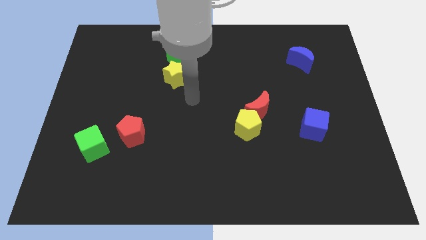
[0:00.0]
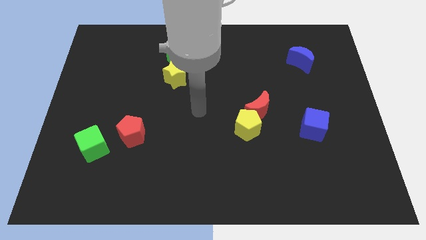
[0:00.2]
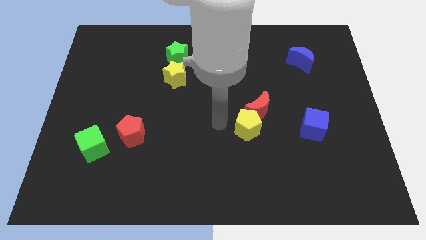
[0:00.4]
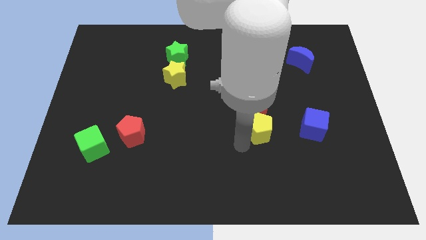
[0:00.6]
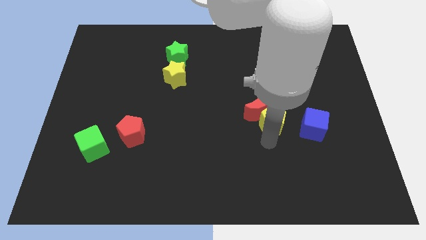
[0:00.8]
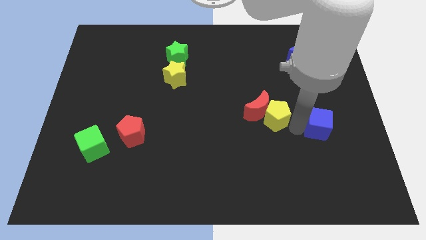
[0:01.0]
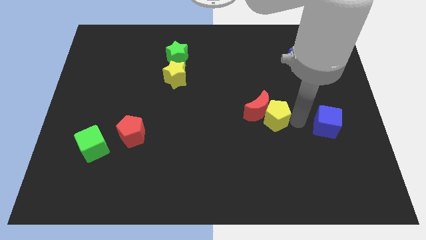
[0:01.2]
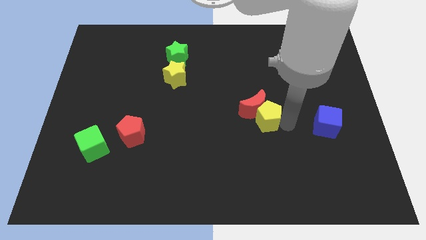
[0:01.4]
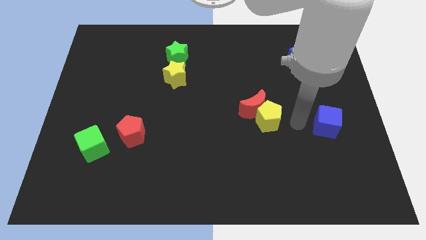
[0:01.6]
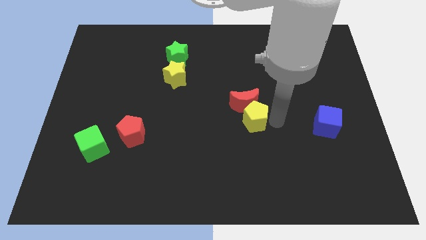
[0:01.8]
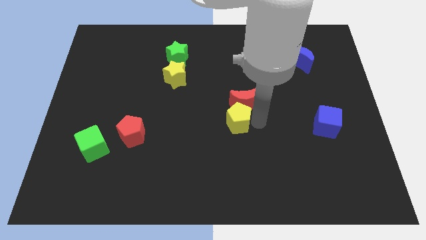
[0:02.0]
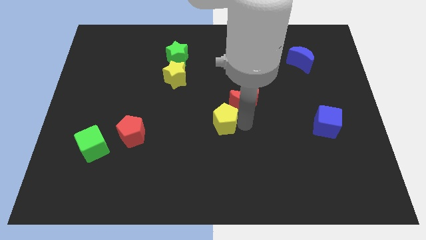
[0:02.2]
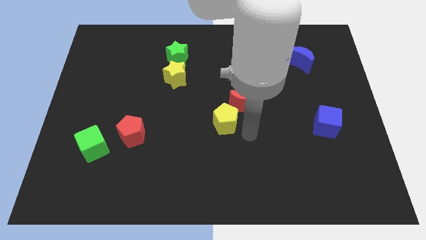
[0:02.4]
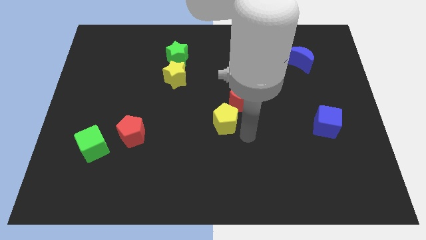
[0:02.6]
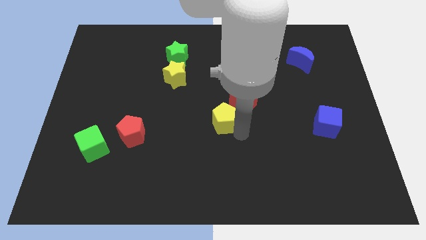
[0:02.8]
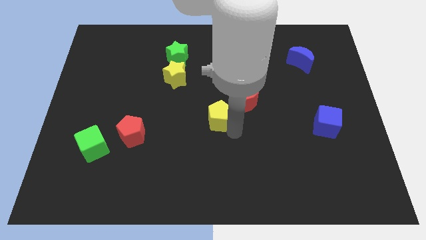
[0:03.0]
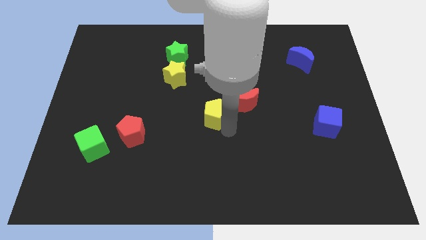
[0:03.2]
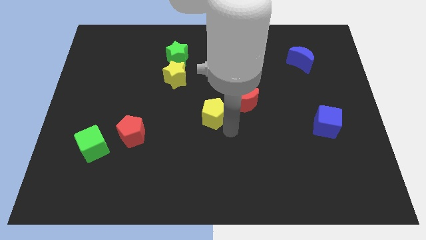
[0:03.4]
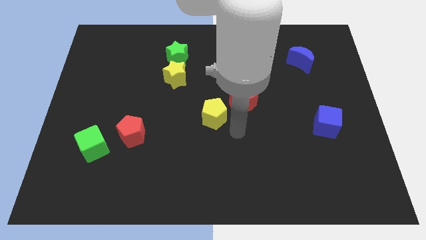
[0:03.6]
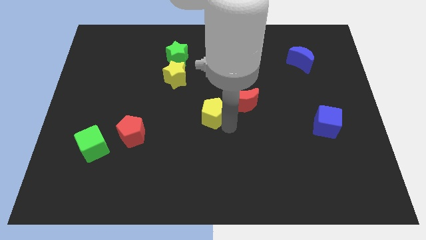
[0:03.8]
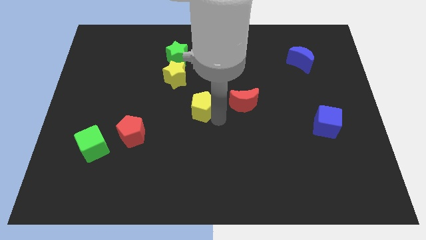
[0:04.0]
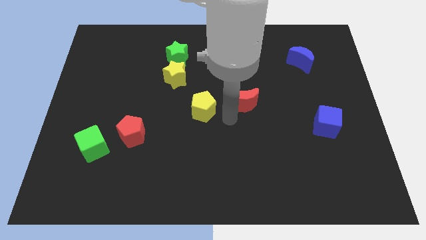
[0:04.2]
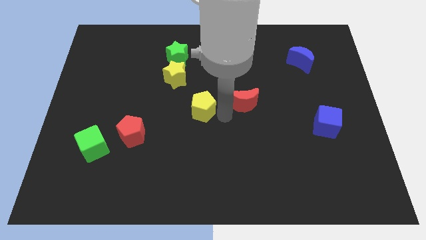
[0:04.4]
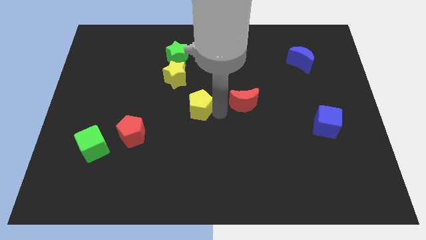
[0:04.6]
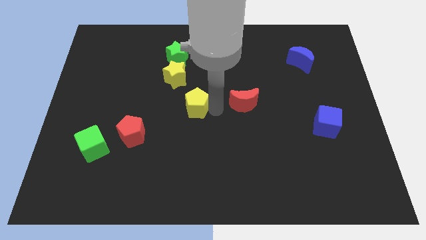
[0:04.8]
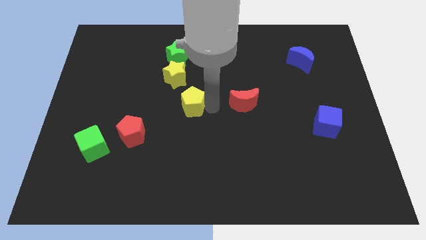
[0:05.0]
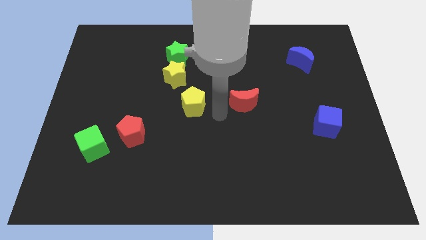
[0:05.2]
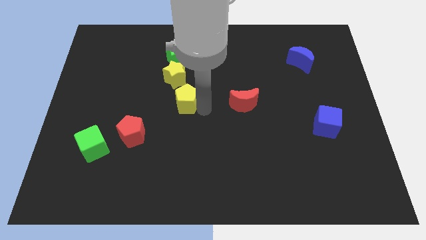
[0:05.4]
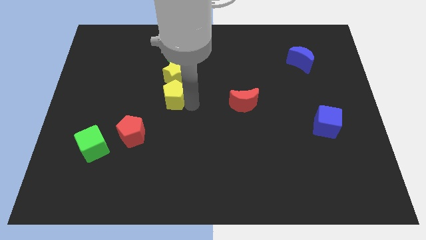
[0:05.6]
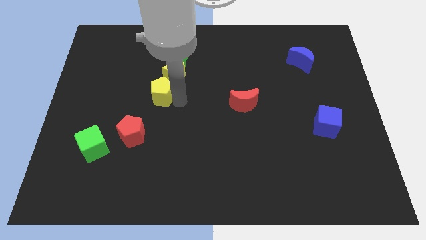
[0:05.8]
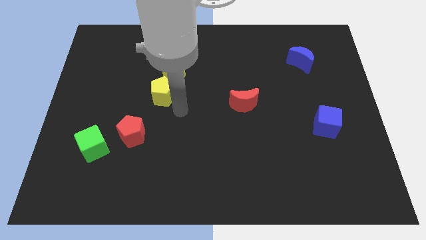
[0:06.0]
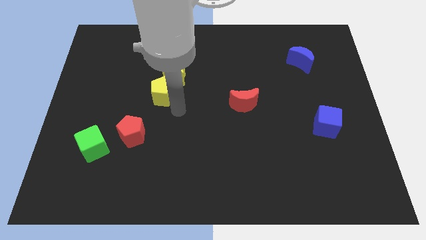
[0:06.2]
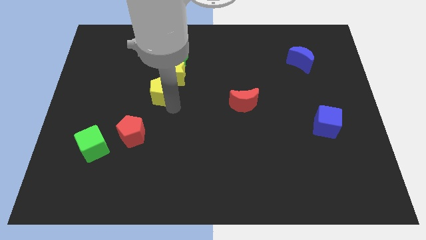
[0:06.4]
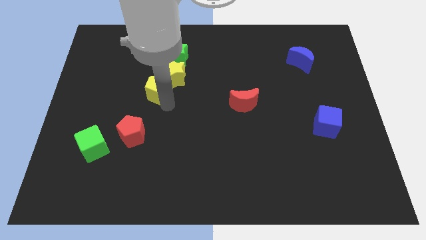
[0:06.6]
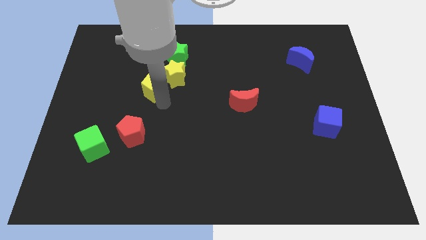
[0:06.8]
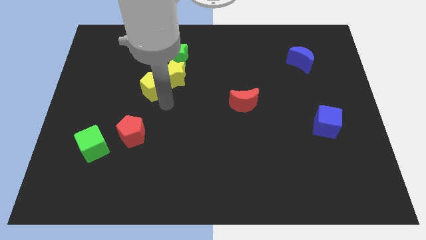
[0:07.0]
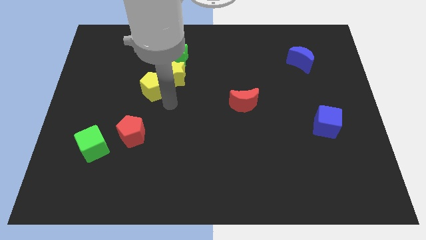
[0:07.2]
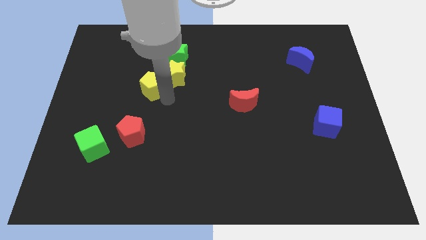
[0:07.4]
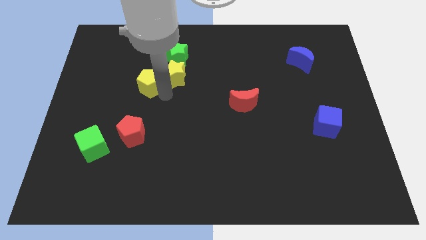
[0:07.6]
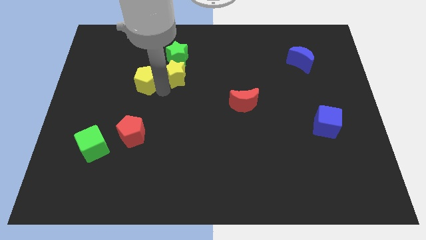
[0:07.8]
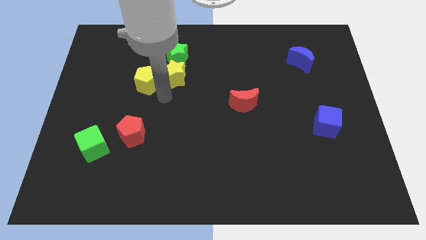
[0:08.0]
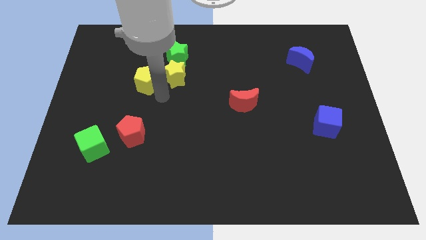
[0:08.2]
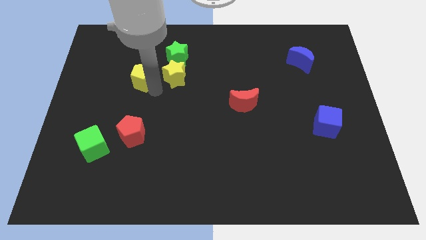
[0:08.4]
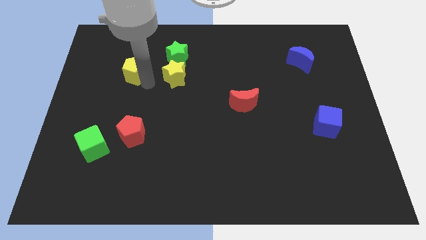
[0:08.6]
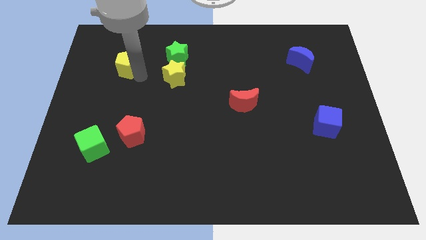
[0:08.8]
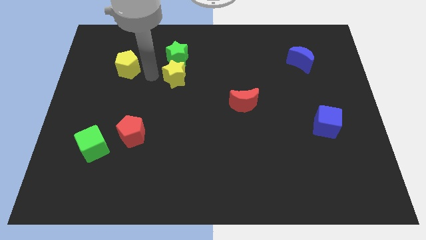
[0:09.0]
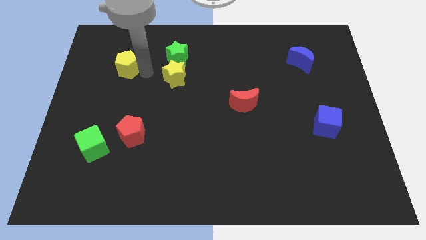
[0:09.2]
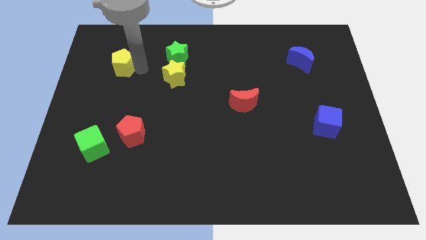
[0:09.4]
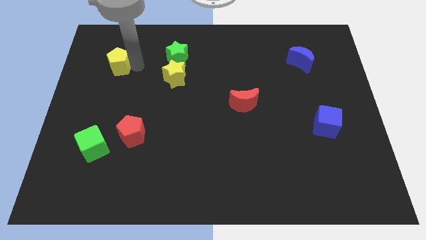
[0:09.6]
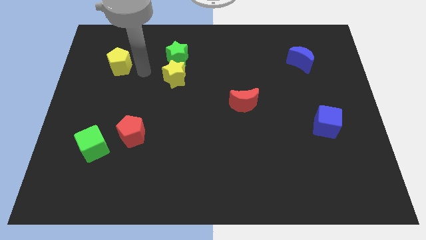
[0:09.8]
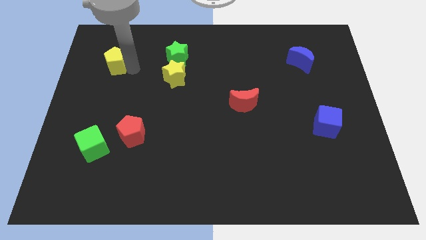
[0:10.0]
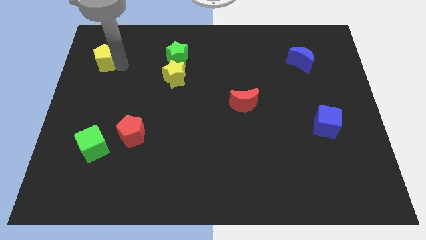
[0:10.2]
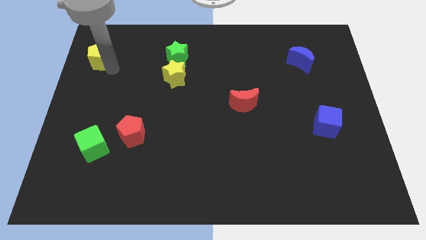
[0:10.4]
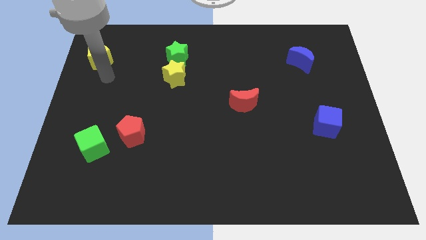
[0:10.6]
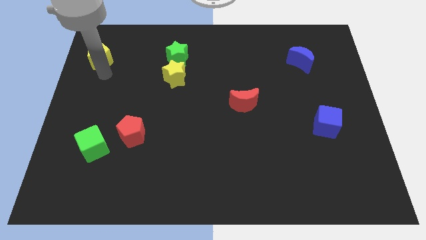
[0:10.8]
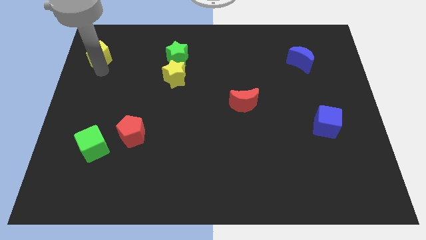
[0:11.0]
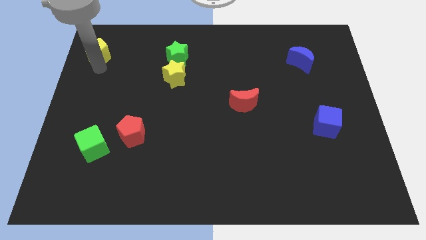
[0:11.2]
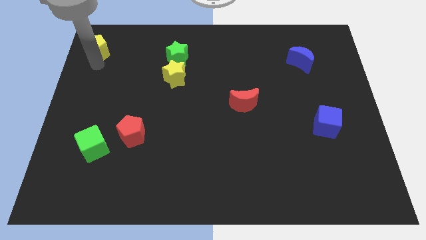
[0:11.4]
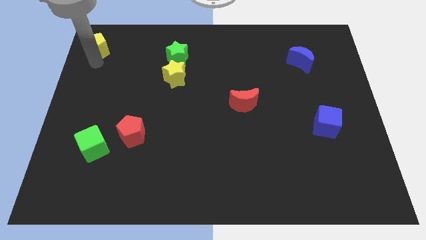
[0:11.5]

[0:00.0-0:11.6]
slide the yellow pentagon to the top left

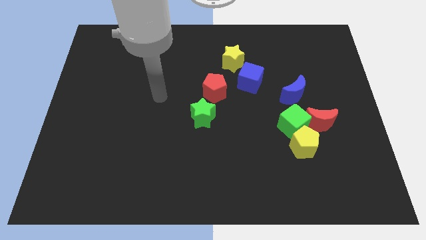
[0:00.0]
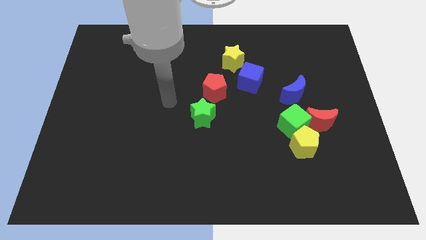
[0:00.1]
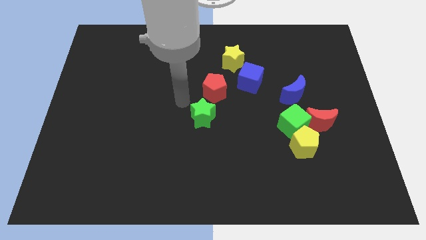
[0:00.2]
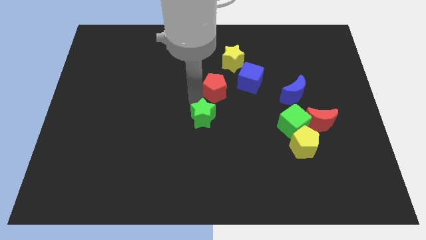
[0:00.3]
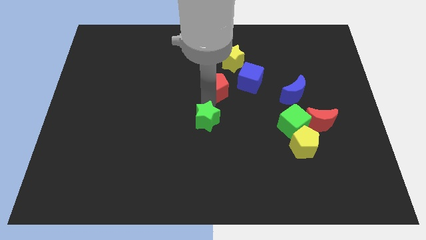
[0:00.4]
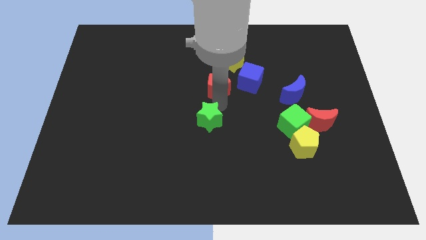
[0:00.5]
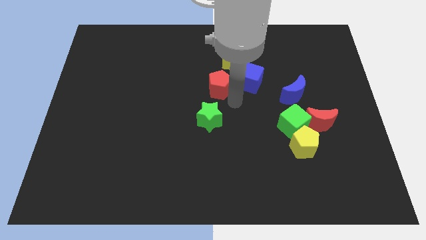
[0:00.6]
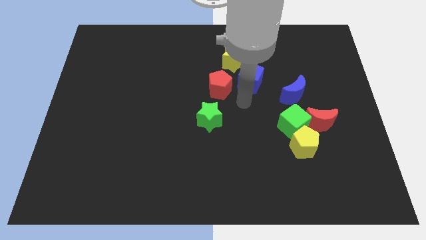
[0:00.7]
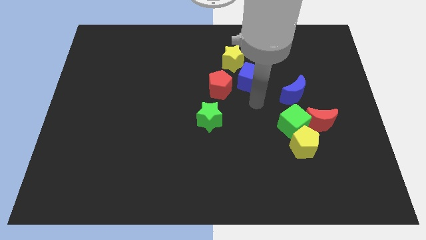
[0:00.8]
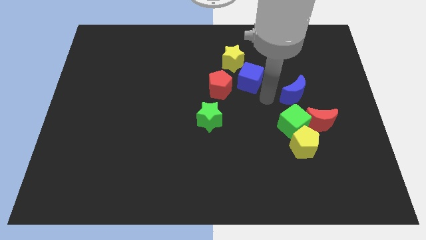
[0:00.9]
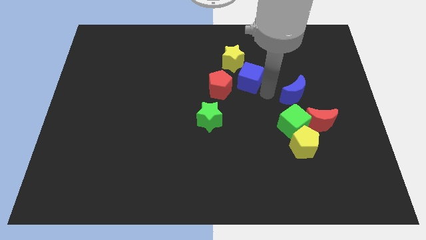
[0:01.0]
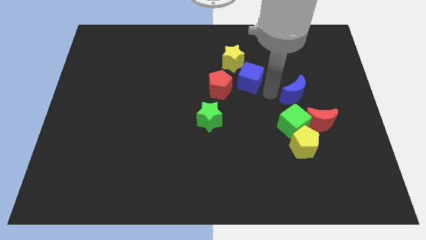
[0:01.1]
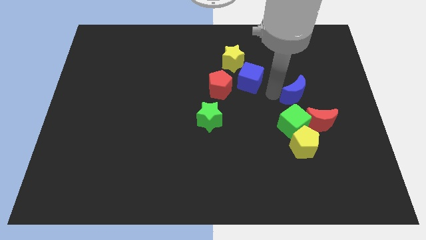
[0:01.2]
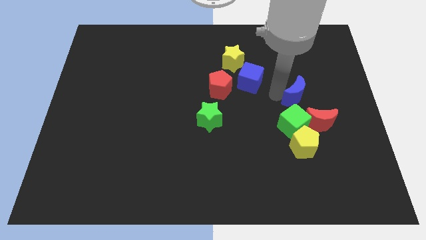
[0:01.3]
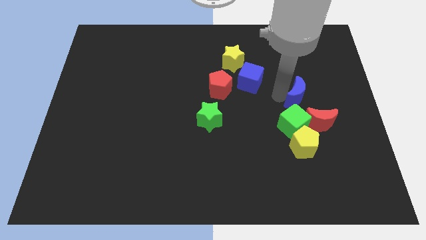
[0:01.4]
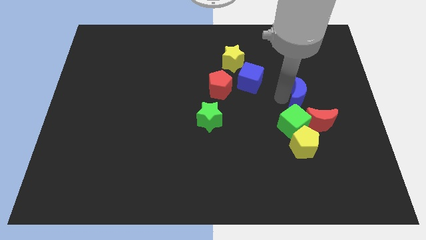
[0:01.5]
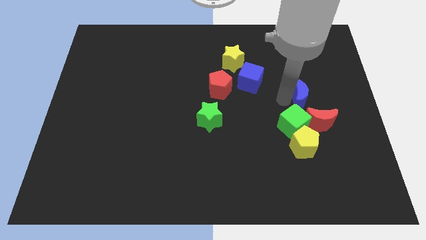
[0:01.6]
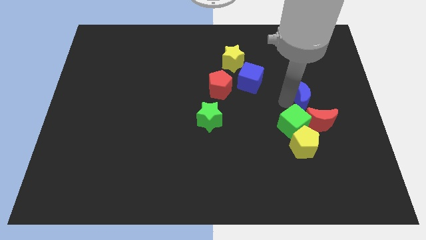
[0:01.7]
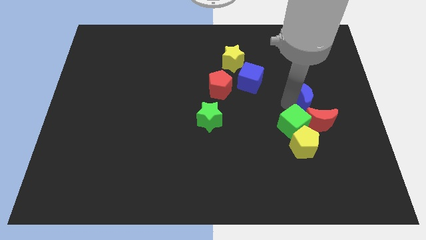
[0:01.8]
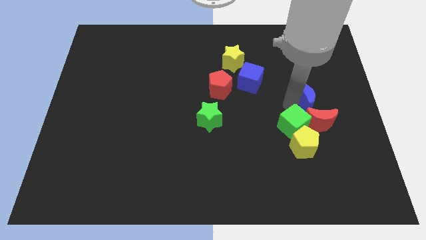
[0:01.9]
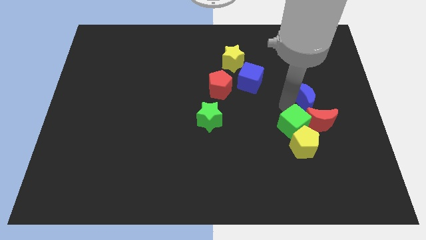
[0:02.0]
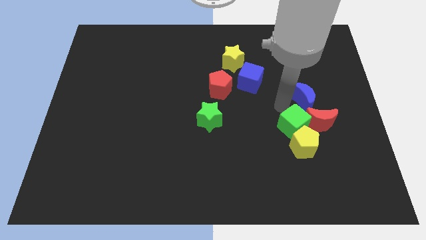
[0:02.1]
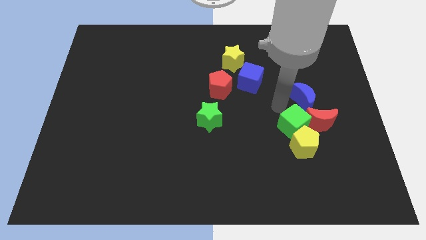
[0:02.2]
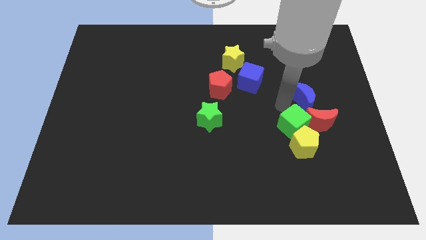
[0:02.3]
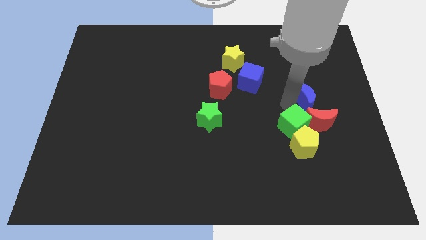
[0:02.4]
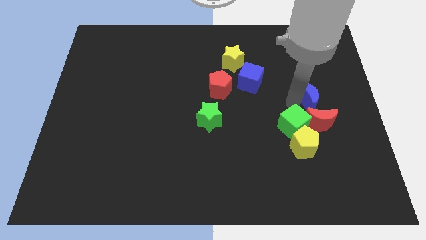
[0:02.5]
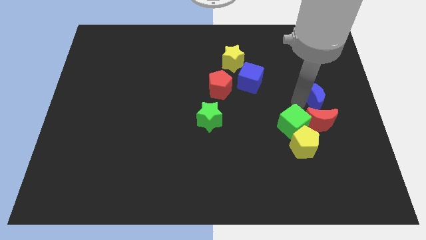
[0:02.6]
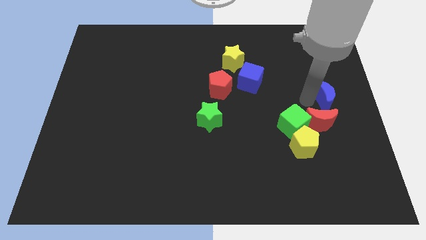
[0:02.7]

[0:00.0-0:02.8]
push the blue moon to the right side
